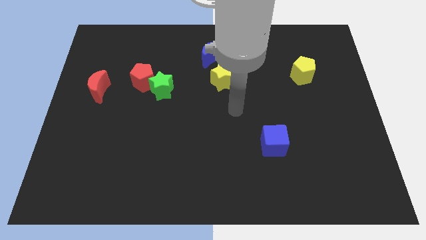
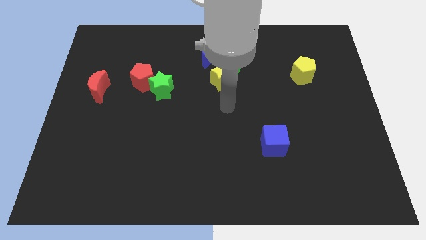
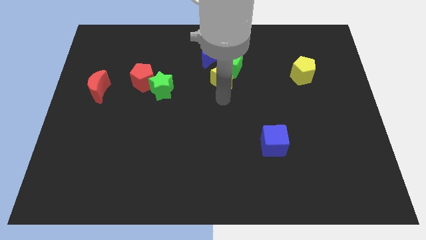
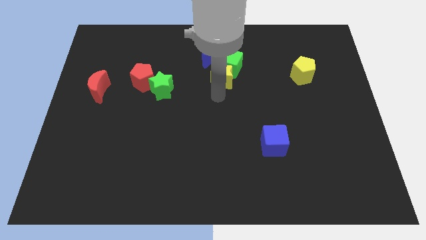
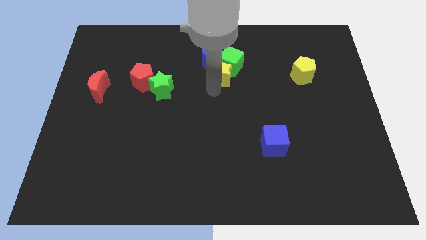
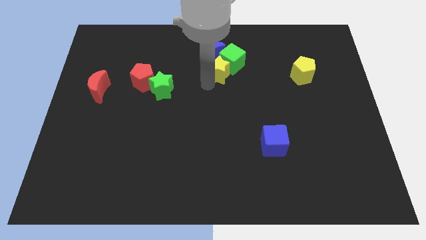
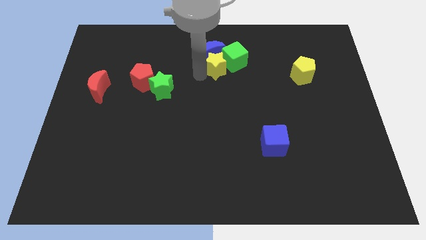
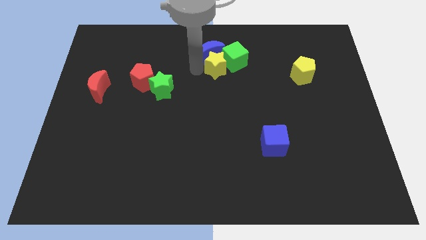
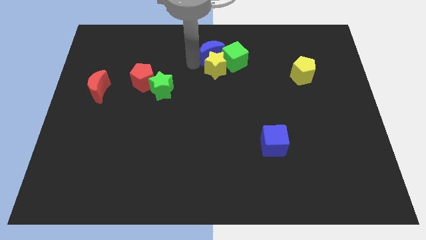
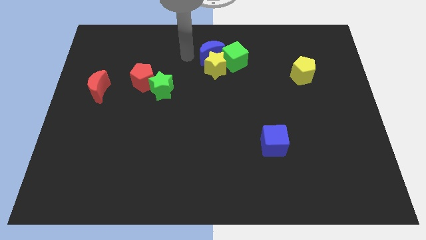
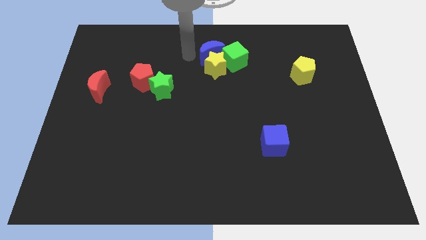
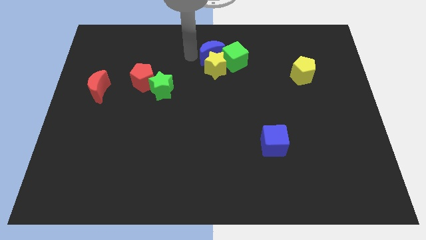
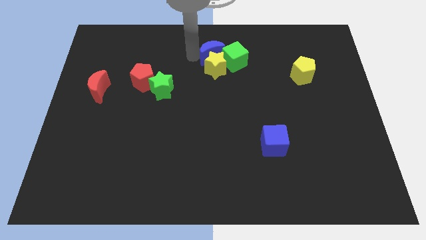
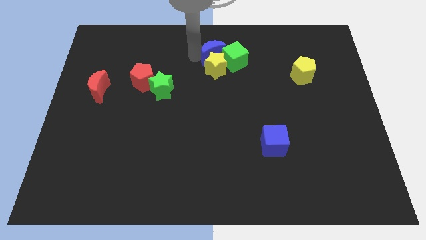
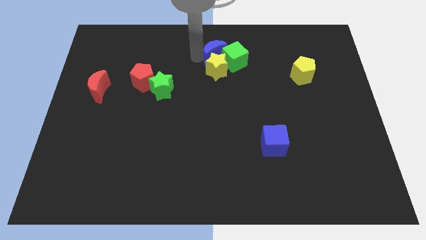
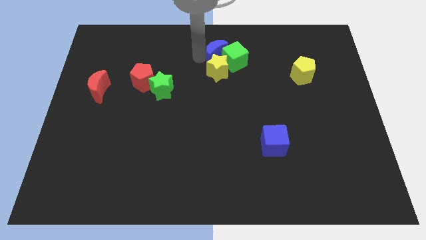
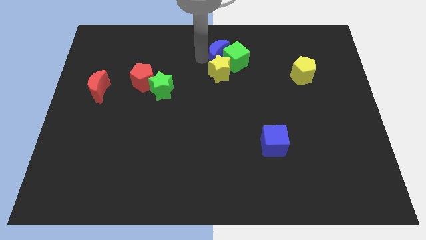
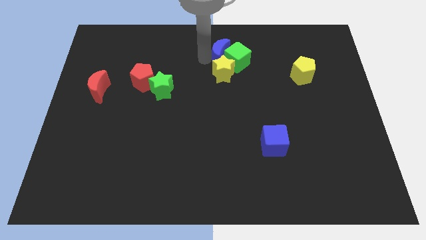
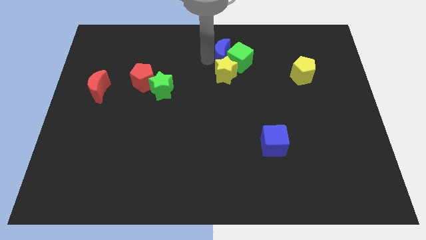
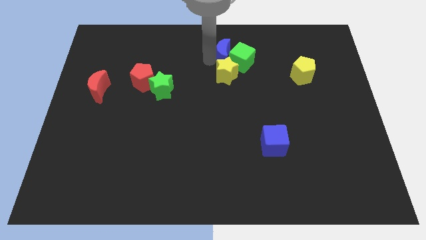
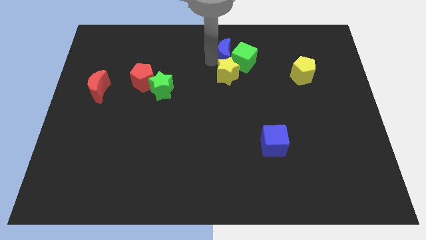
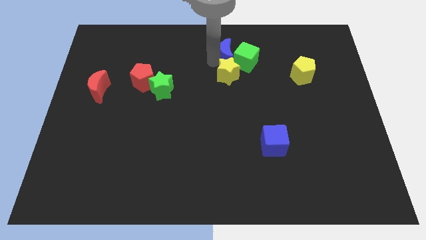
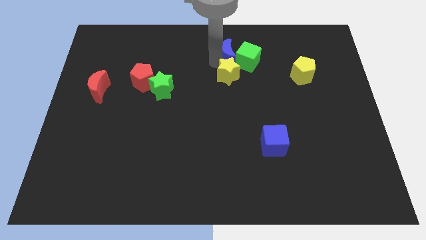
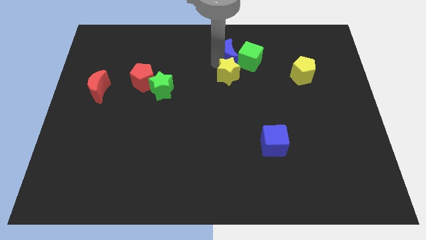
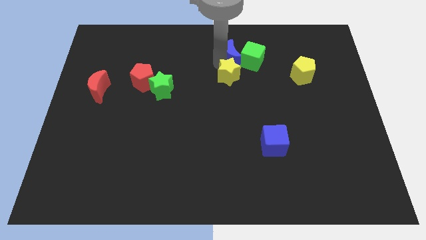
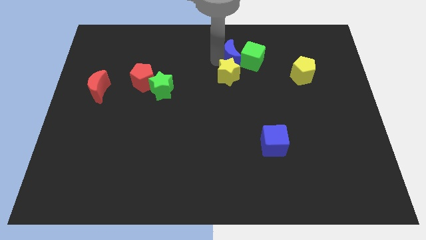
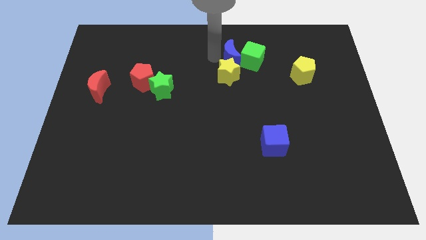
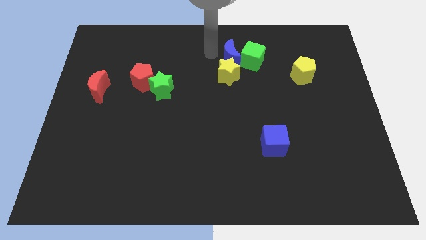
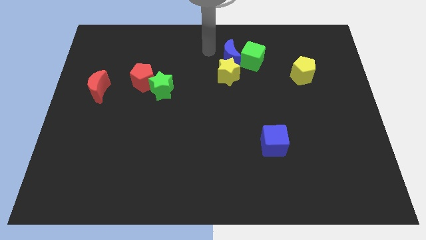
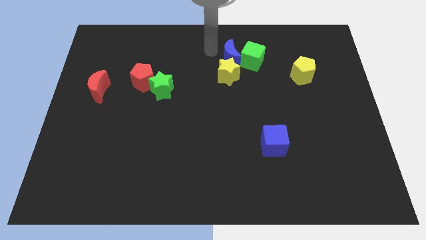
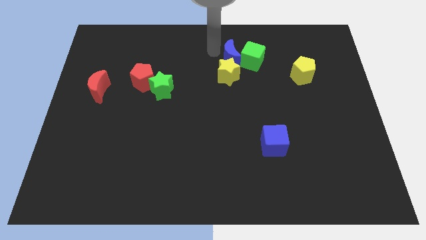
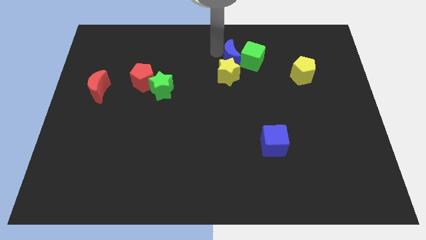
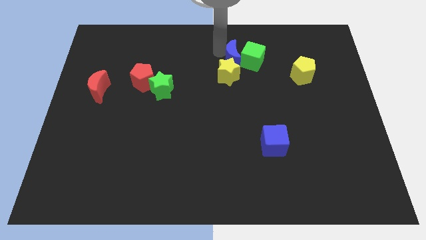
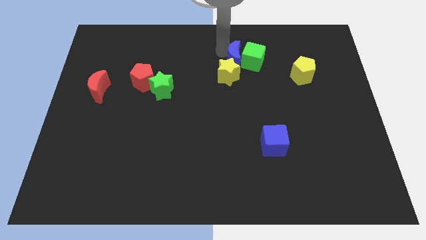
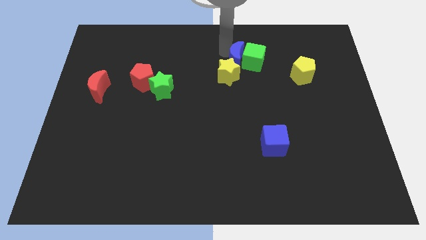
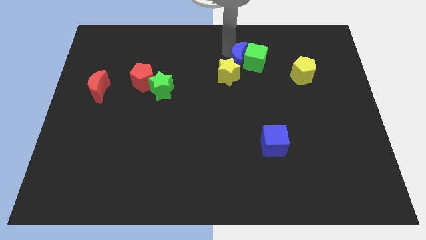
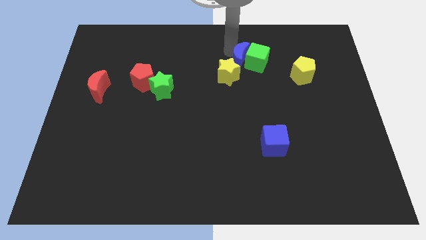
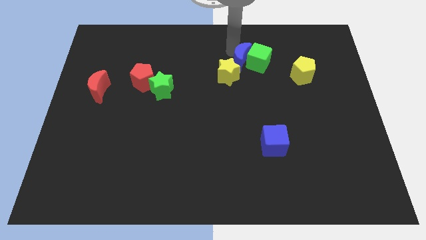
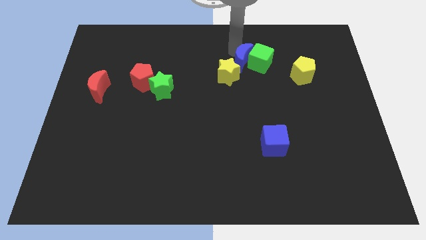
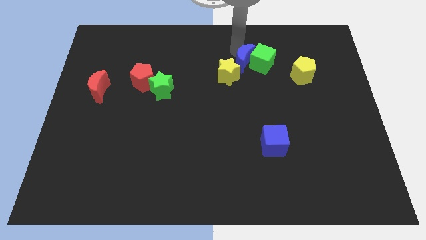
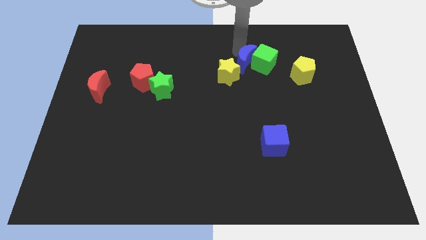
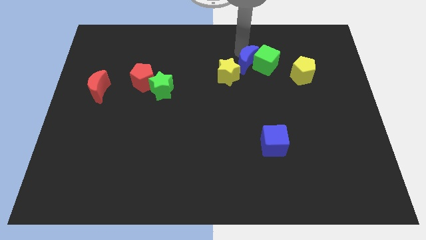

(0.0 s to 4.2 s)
push the blue moon a bit downwards and to the right

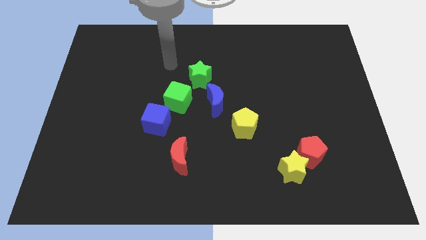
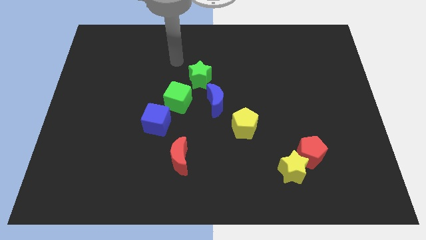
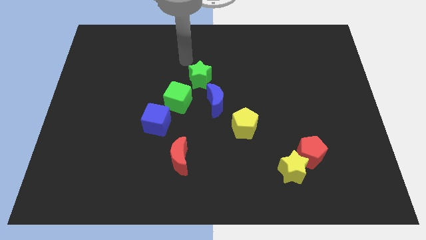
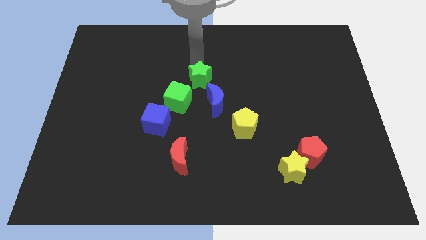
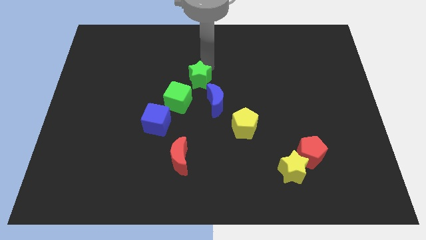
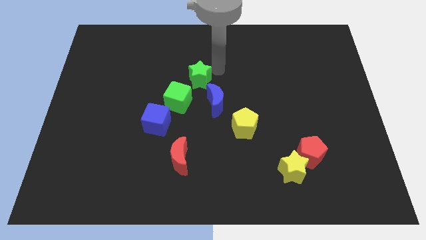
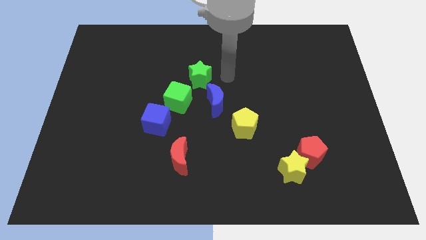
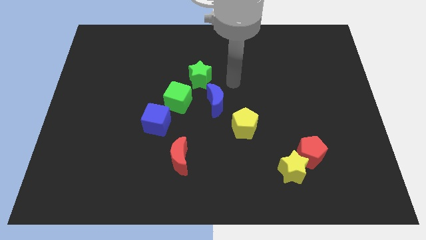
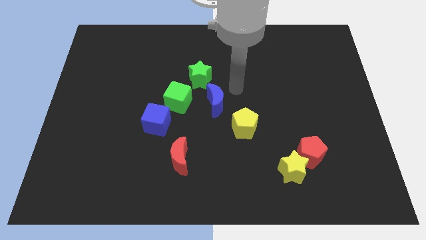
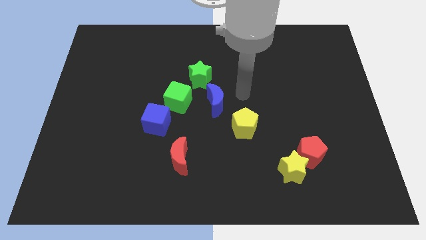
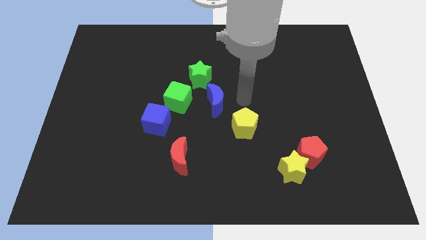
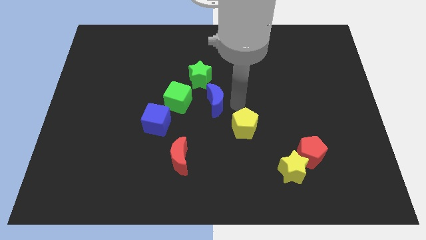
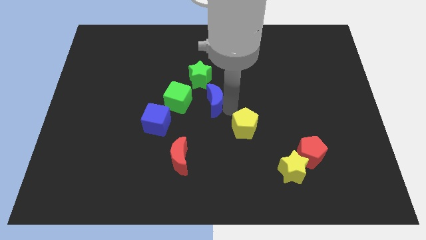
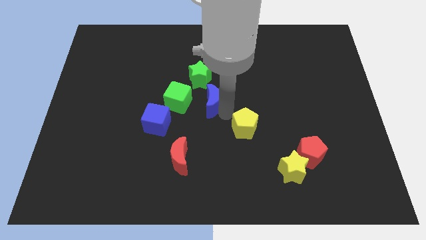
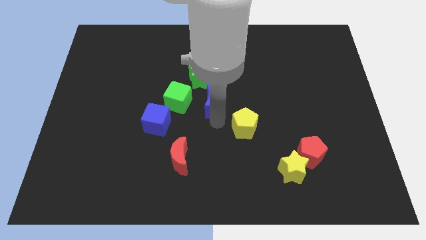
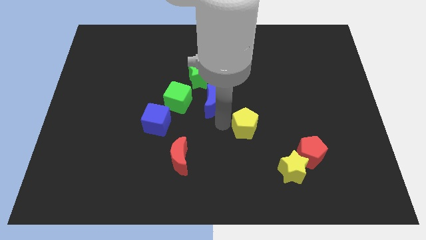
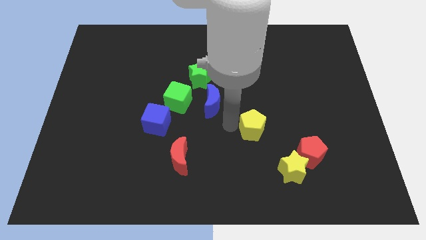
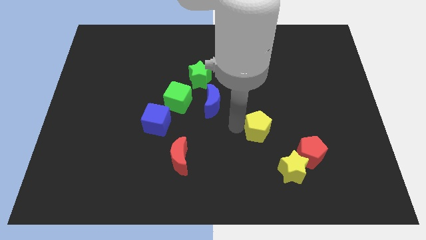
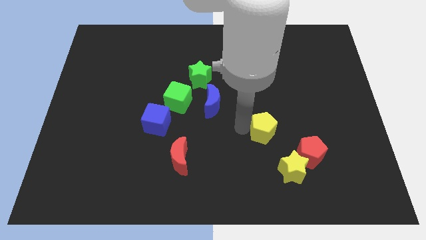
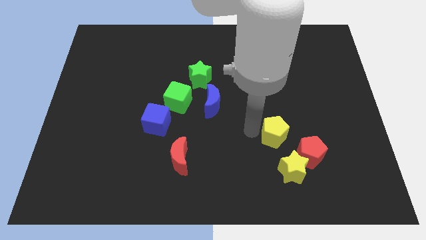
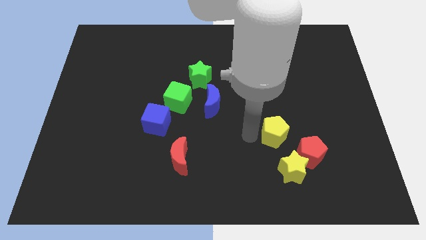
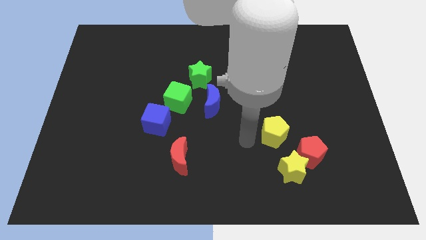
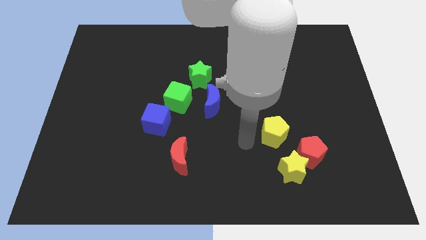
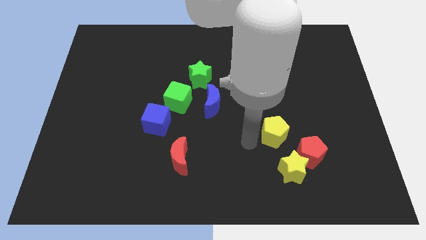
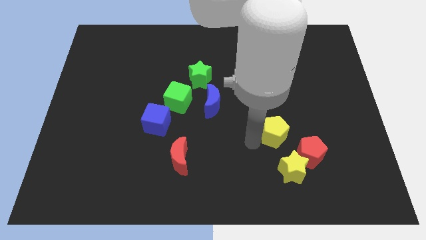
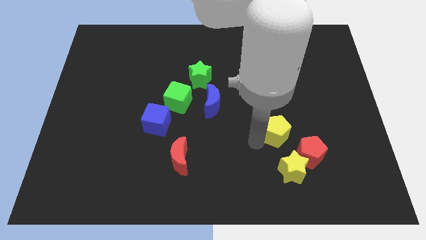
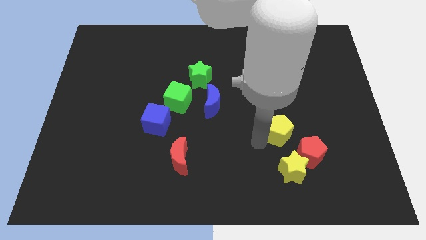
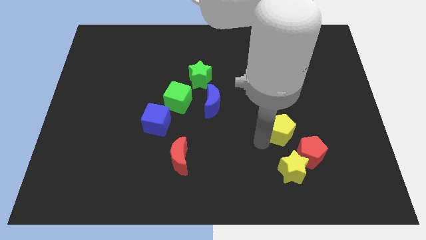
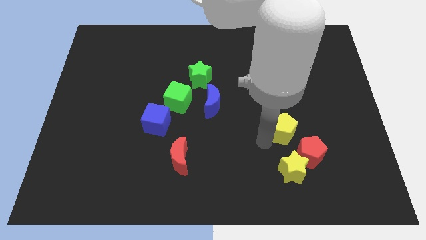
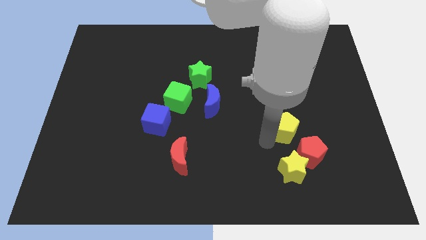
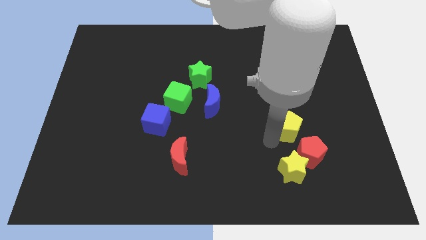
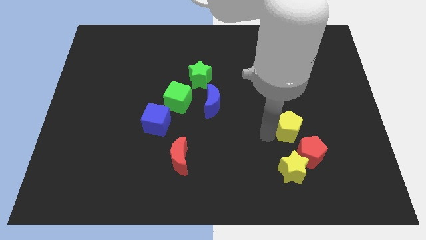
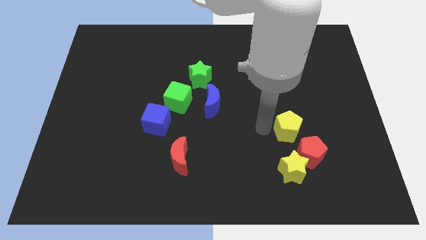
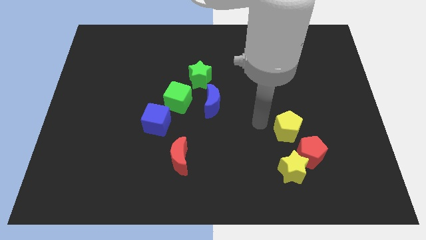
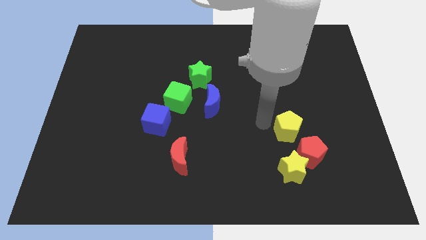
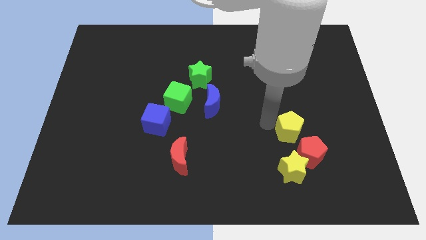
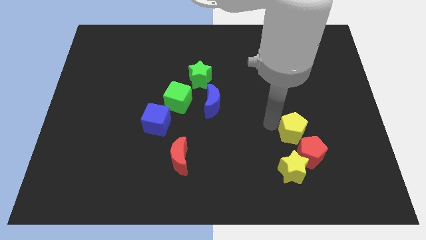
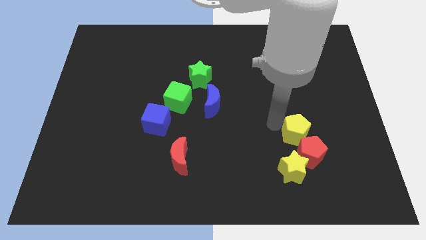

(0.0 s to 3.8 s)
push the yellow pentagon a little diagonally down and right

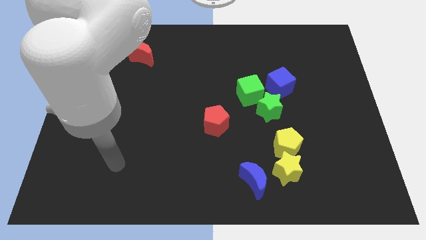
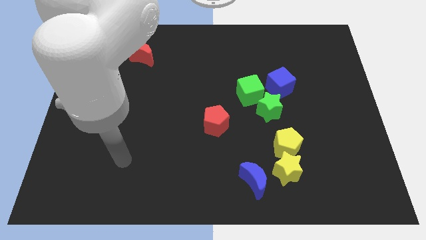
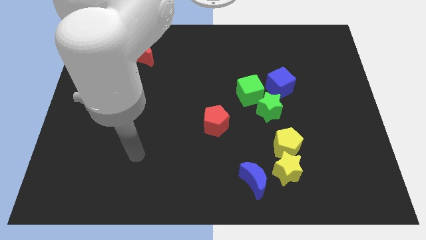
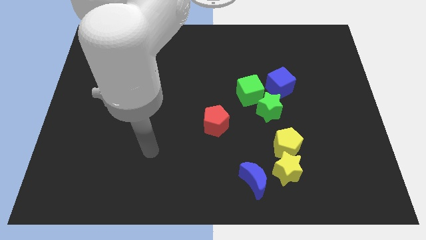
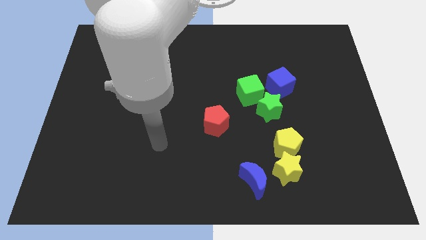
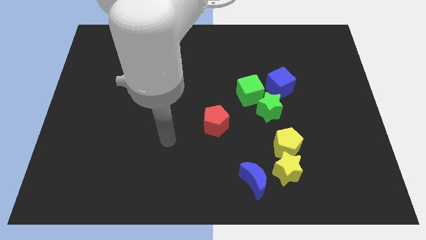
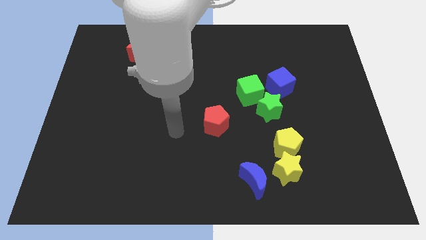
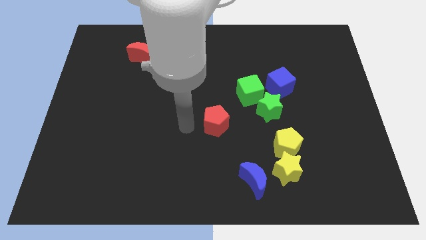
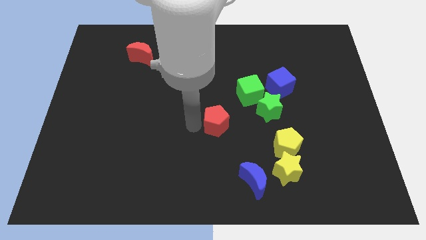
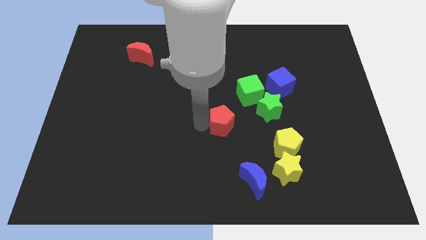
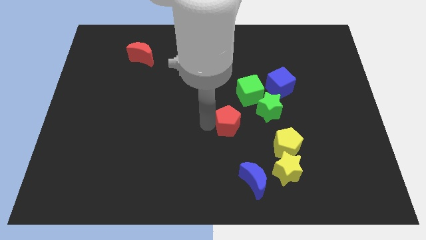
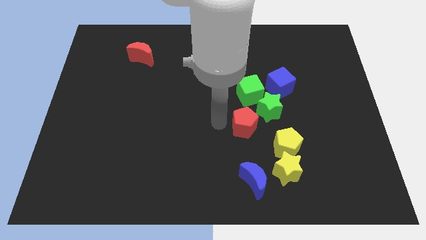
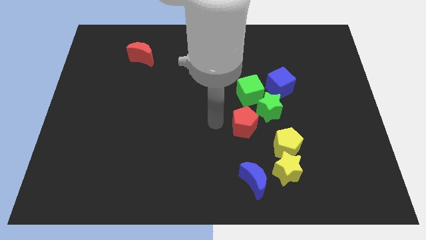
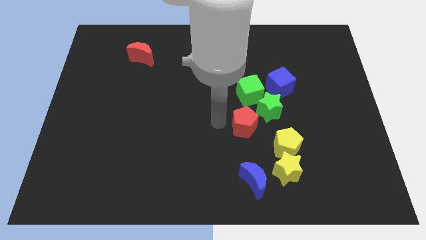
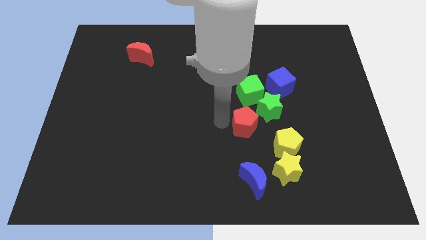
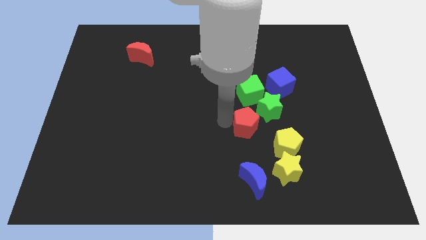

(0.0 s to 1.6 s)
slightly slide the red pentagon right
